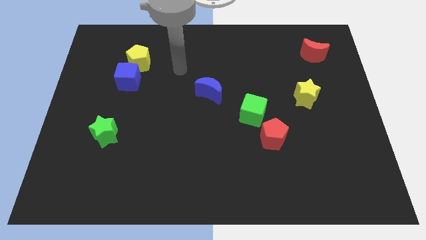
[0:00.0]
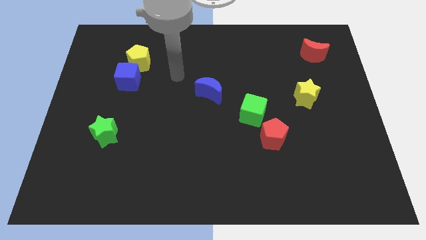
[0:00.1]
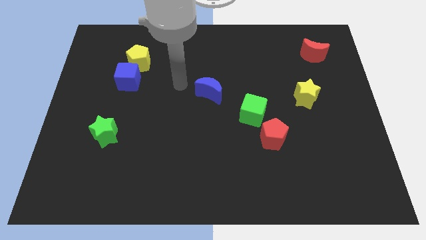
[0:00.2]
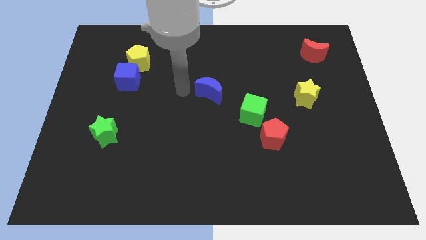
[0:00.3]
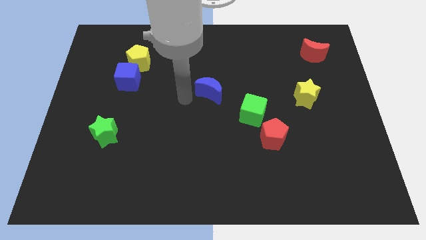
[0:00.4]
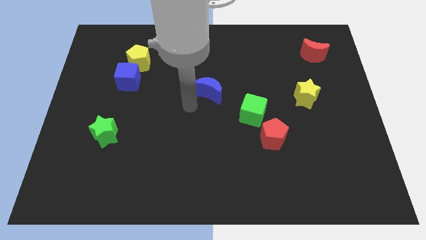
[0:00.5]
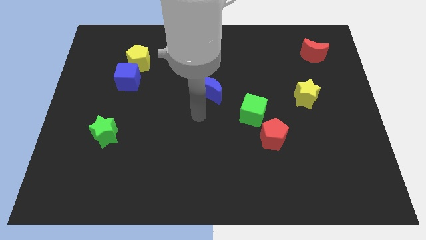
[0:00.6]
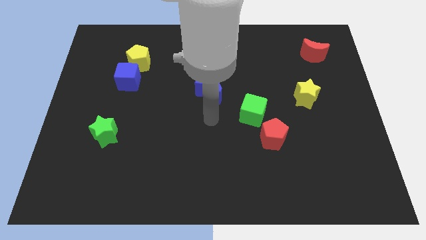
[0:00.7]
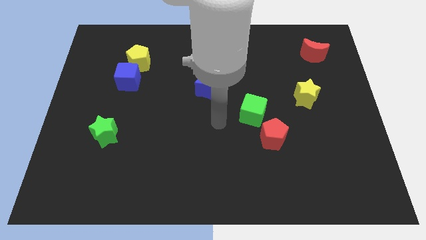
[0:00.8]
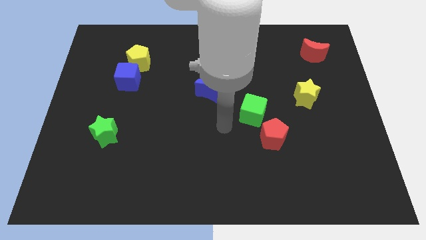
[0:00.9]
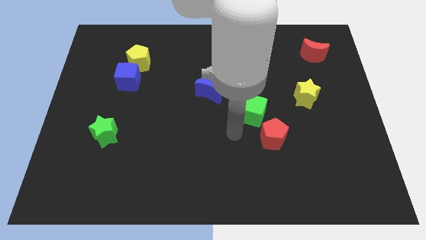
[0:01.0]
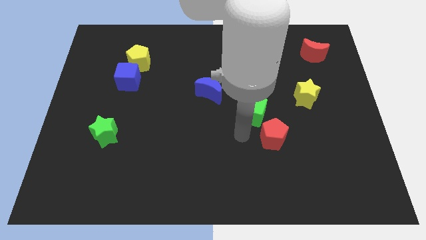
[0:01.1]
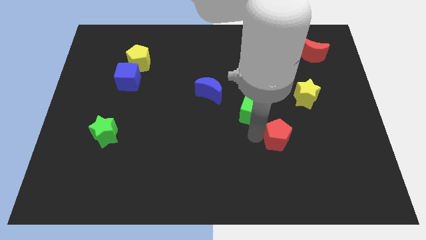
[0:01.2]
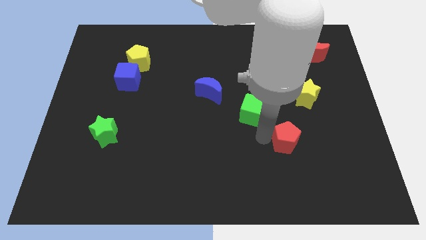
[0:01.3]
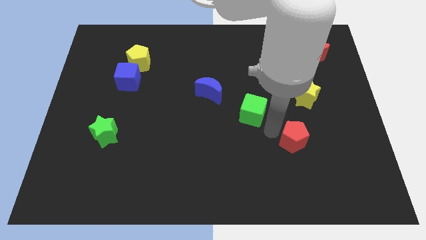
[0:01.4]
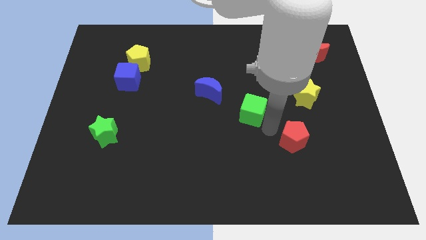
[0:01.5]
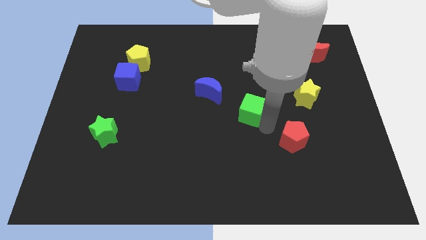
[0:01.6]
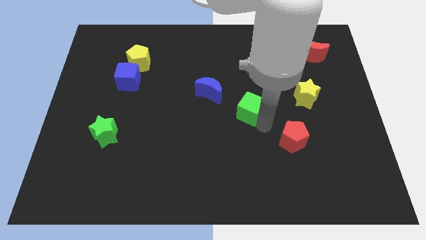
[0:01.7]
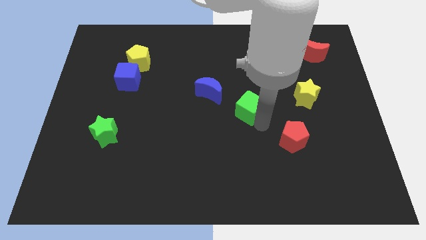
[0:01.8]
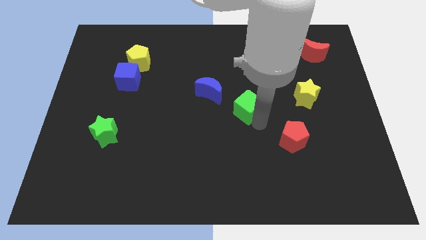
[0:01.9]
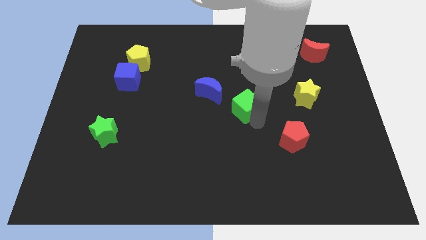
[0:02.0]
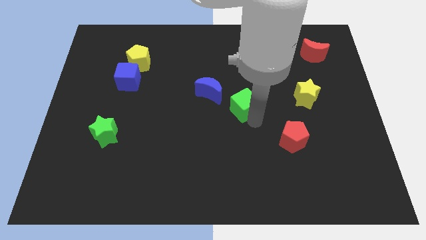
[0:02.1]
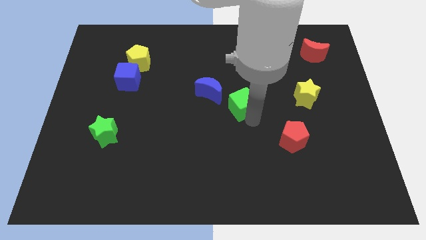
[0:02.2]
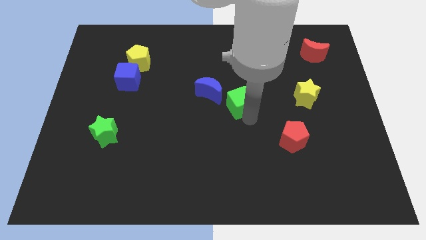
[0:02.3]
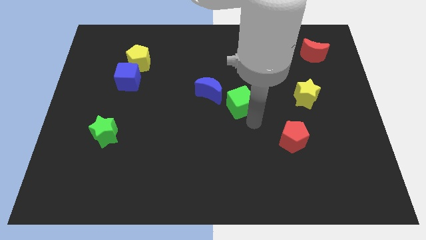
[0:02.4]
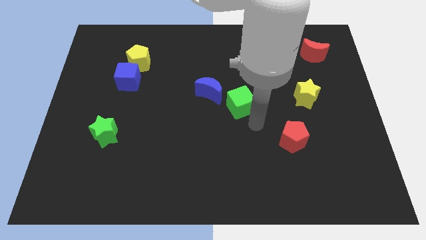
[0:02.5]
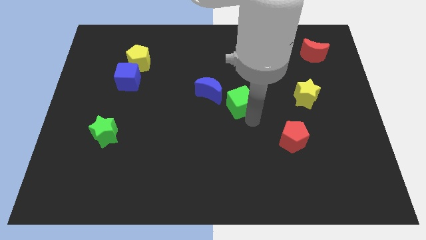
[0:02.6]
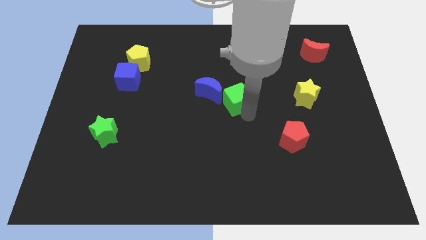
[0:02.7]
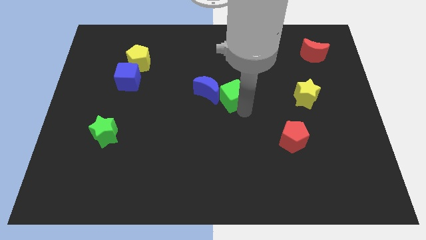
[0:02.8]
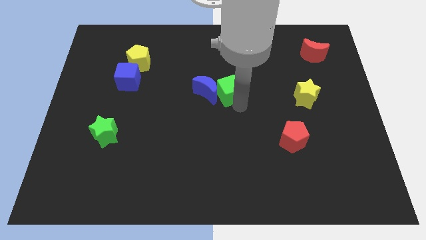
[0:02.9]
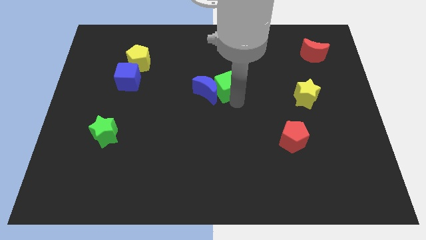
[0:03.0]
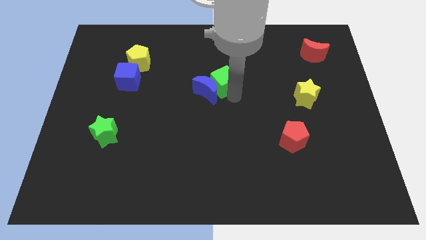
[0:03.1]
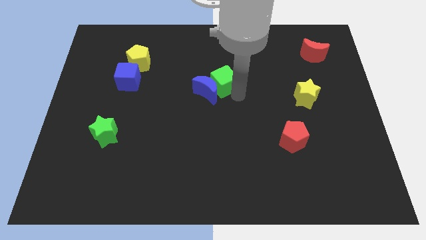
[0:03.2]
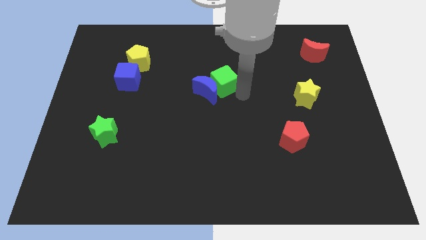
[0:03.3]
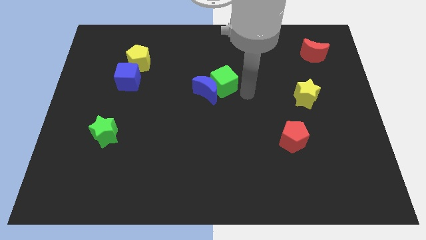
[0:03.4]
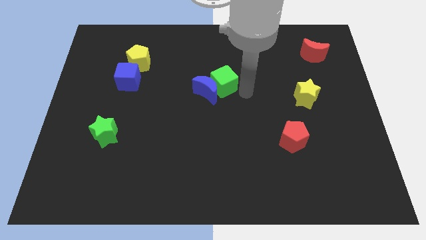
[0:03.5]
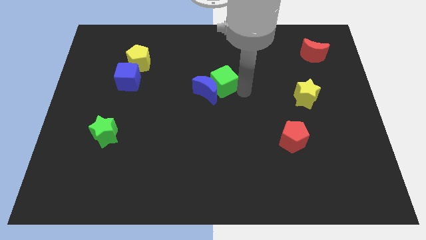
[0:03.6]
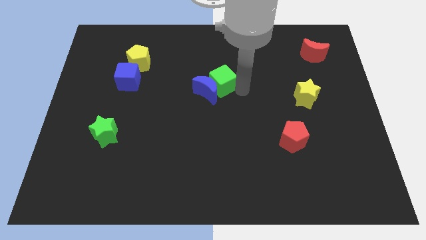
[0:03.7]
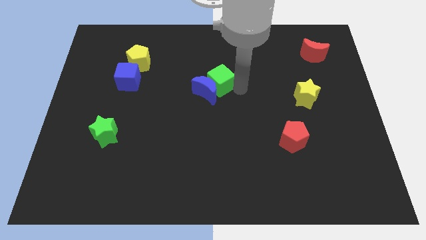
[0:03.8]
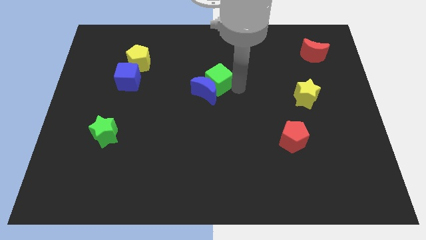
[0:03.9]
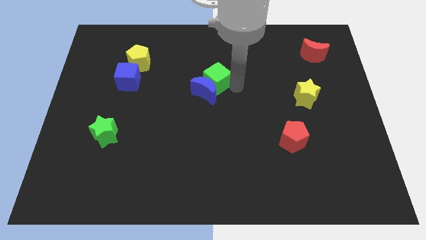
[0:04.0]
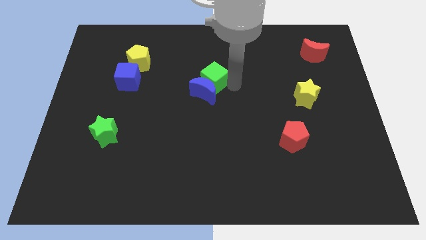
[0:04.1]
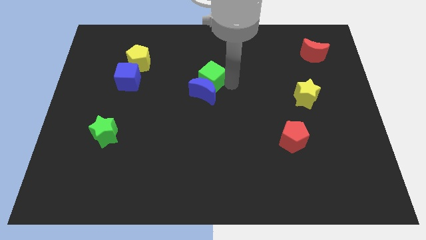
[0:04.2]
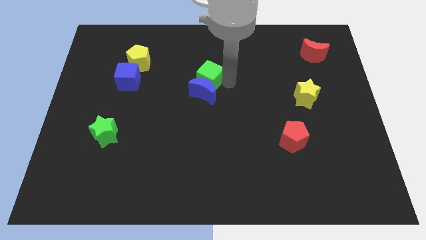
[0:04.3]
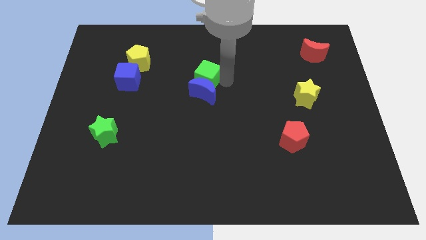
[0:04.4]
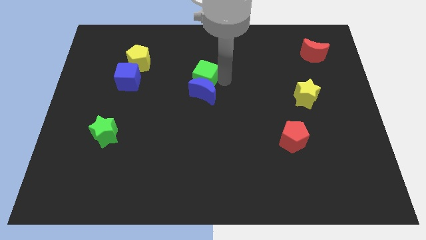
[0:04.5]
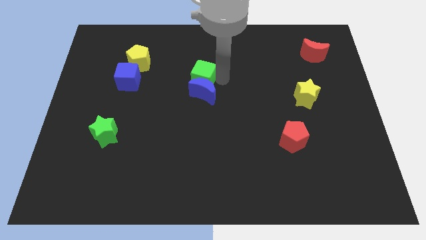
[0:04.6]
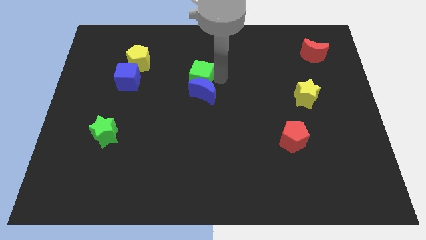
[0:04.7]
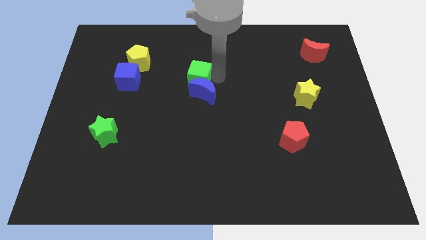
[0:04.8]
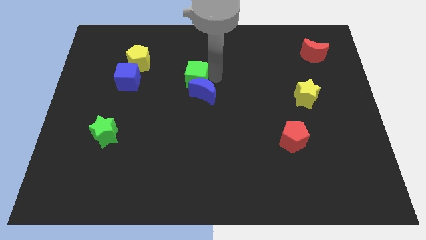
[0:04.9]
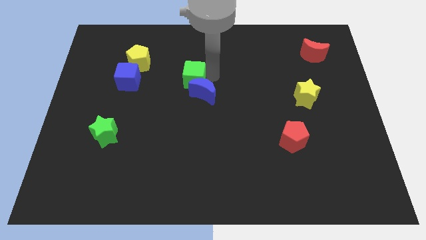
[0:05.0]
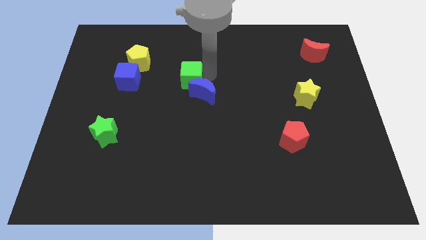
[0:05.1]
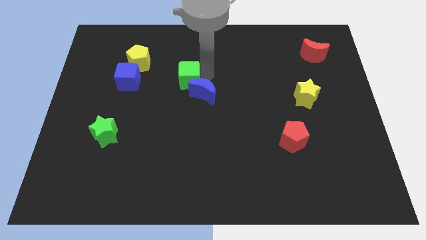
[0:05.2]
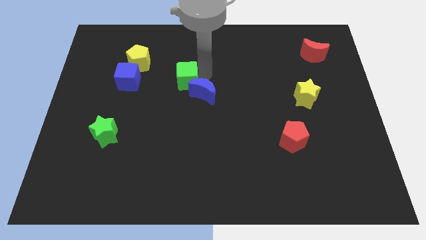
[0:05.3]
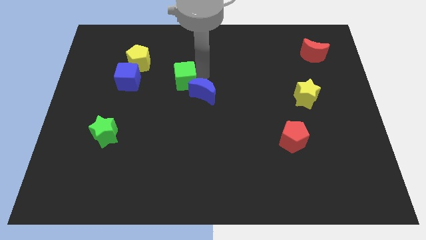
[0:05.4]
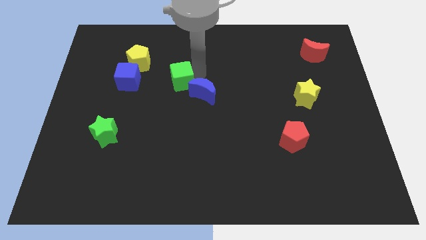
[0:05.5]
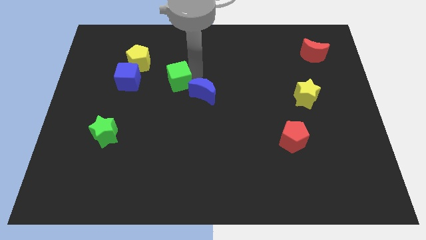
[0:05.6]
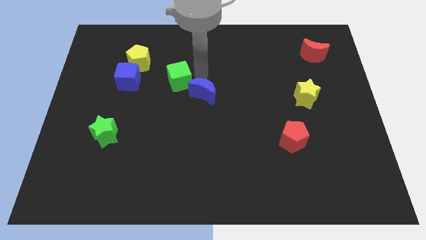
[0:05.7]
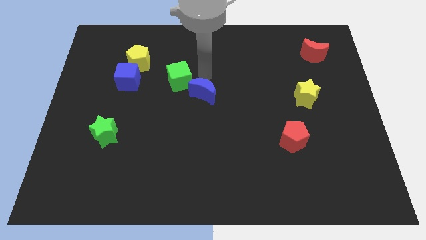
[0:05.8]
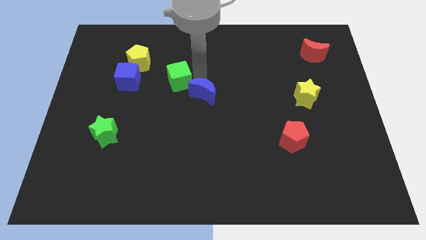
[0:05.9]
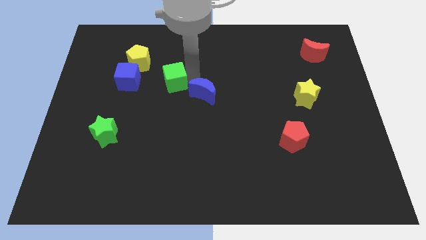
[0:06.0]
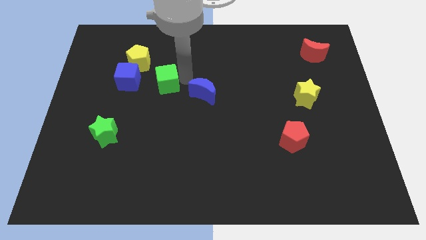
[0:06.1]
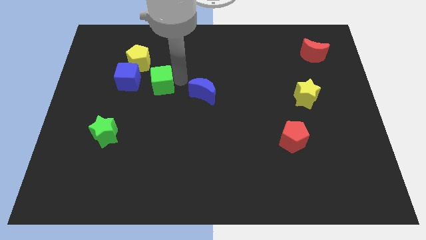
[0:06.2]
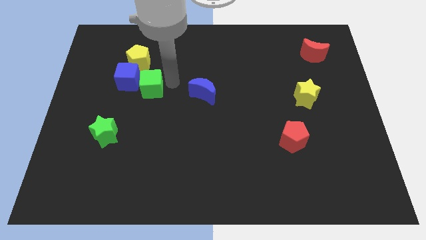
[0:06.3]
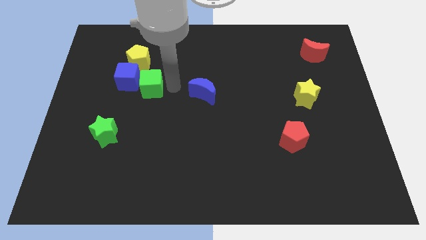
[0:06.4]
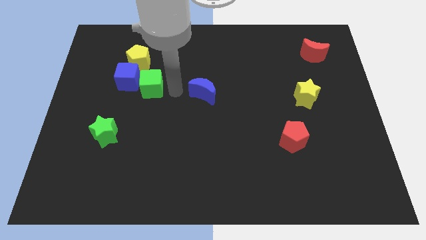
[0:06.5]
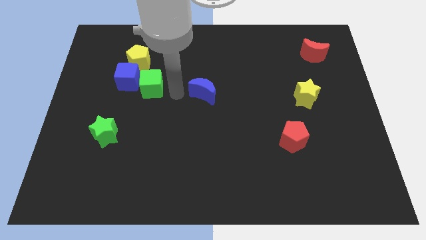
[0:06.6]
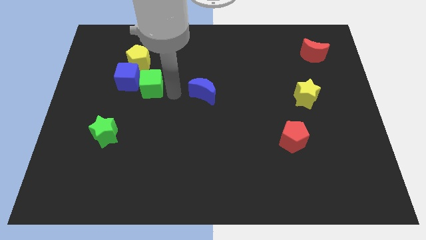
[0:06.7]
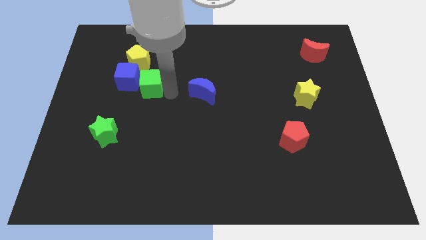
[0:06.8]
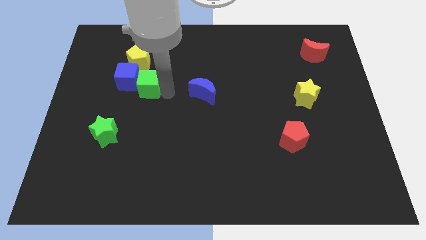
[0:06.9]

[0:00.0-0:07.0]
put the green cube next to the blue cube
